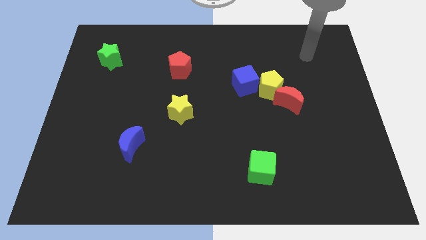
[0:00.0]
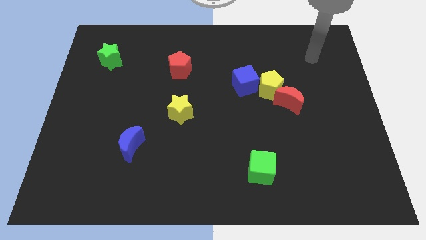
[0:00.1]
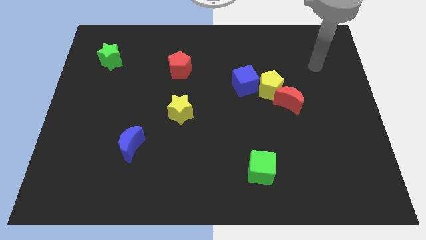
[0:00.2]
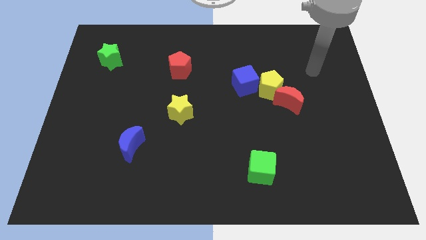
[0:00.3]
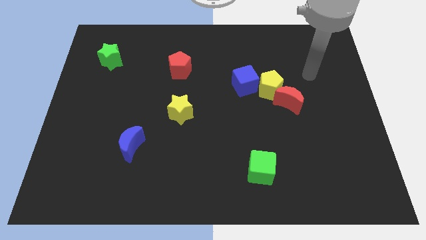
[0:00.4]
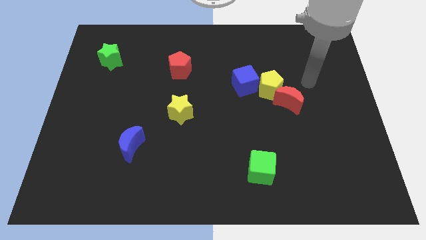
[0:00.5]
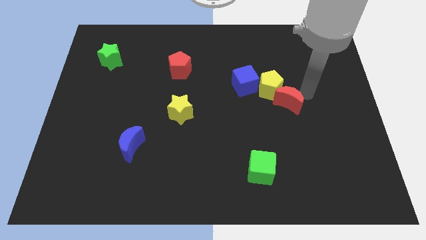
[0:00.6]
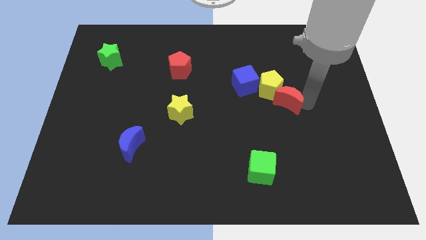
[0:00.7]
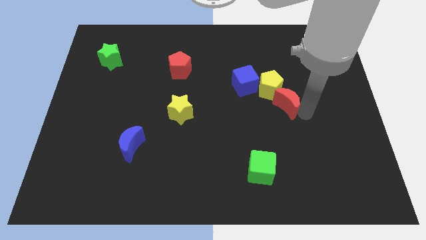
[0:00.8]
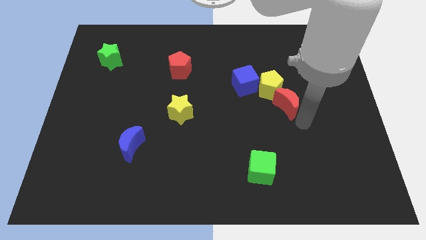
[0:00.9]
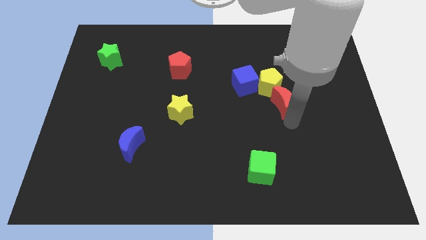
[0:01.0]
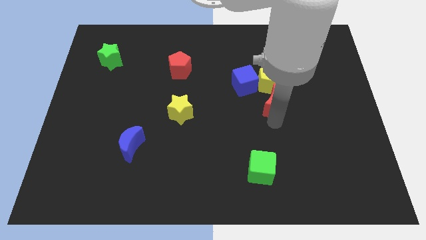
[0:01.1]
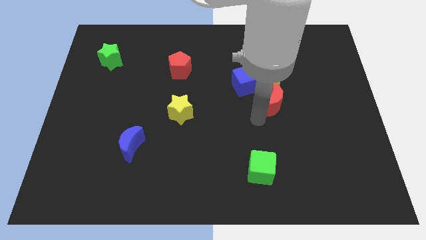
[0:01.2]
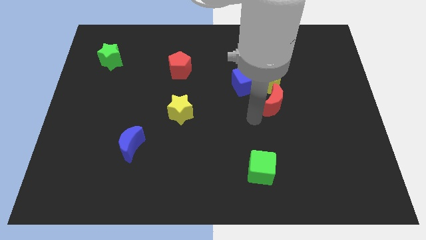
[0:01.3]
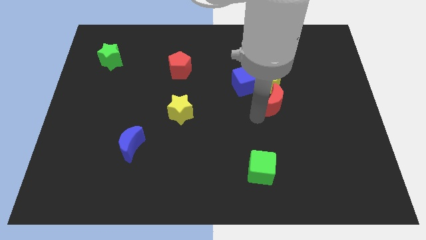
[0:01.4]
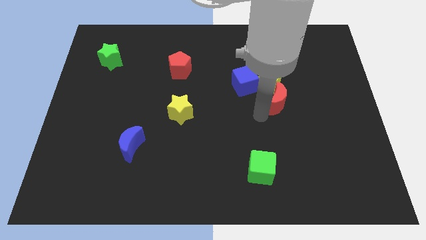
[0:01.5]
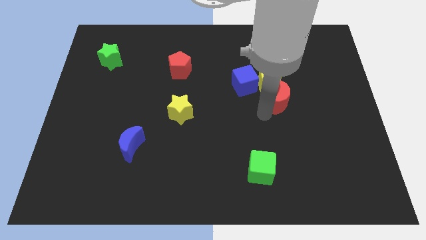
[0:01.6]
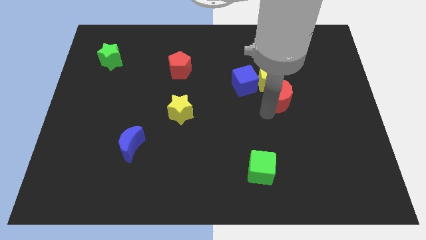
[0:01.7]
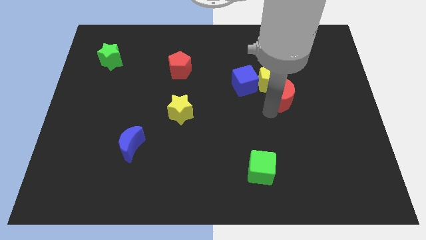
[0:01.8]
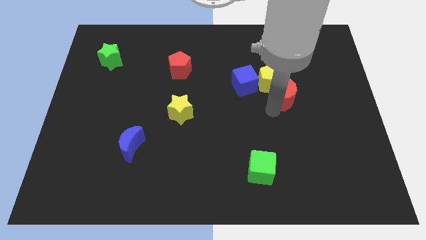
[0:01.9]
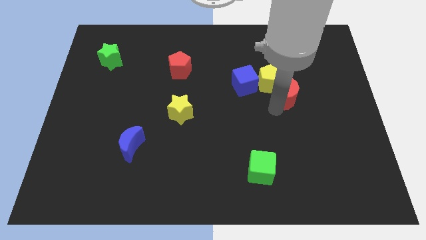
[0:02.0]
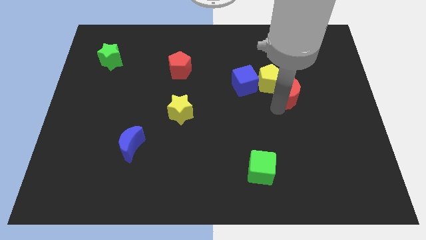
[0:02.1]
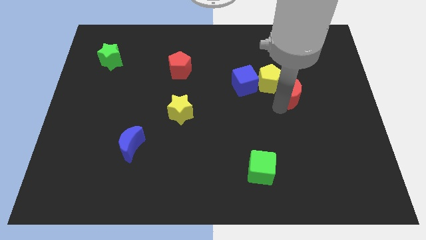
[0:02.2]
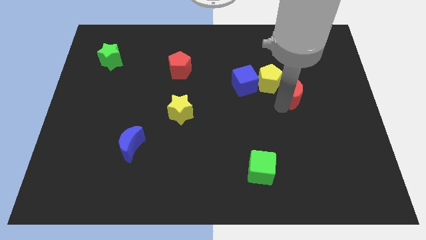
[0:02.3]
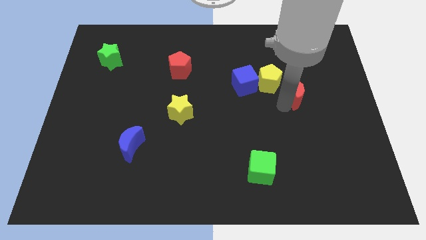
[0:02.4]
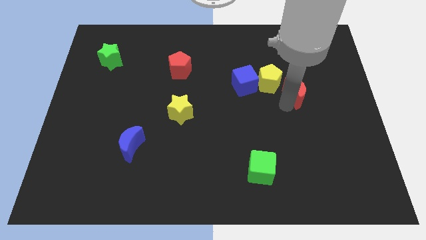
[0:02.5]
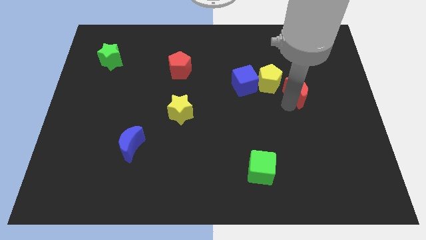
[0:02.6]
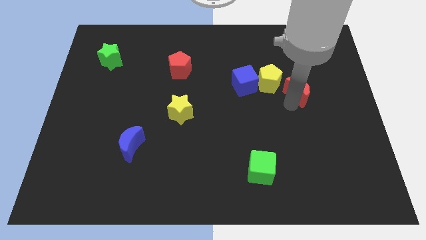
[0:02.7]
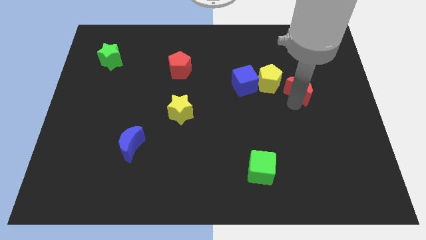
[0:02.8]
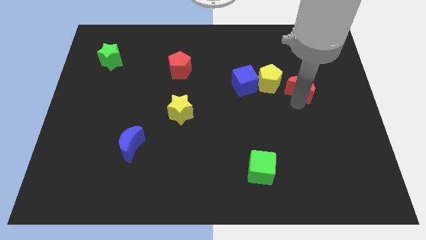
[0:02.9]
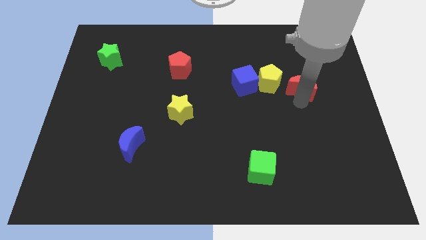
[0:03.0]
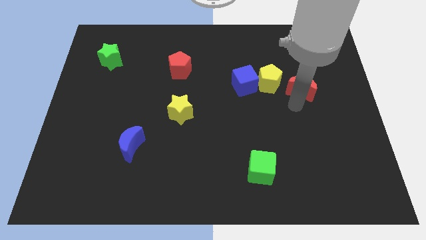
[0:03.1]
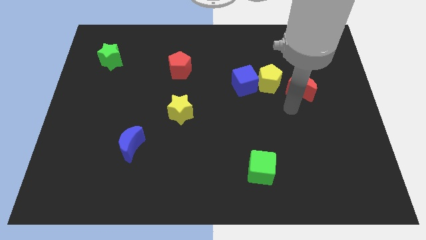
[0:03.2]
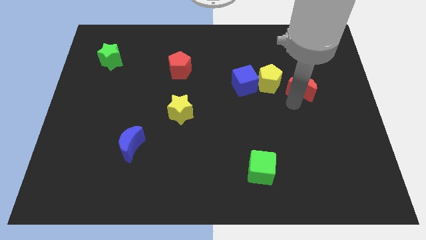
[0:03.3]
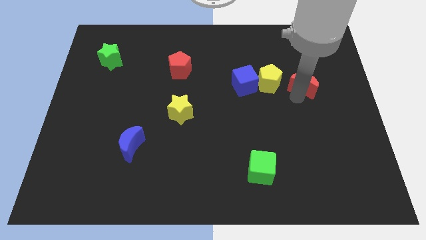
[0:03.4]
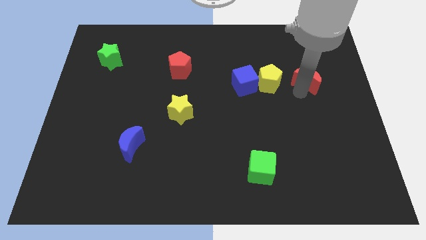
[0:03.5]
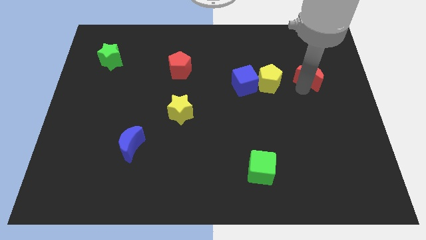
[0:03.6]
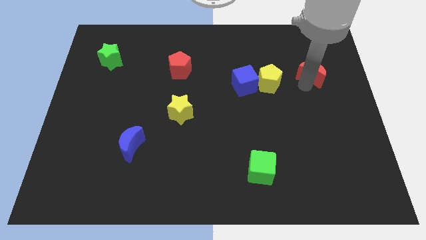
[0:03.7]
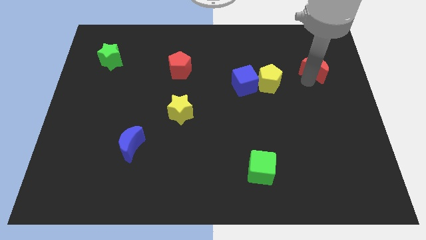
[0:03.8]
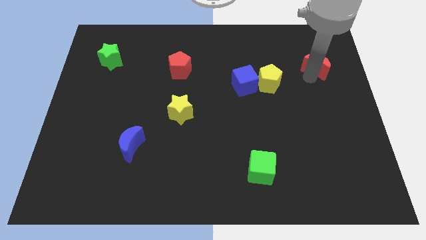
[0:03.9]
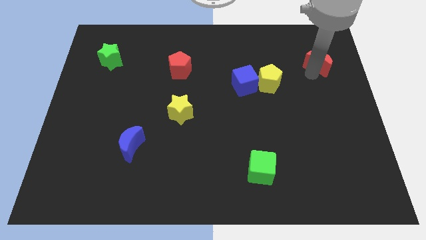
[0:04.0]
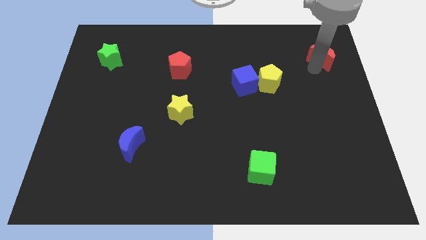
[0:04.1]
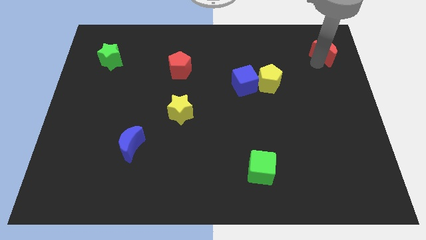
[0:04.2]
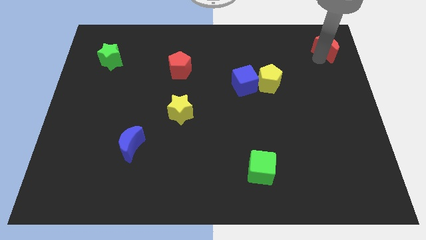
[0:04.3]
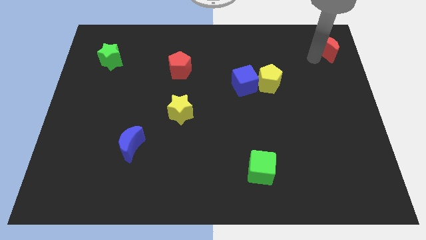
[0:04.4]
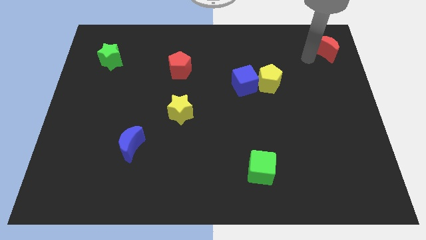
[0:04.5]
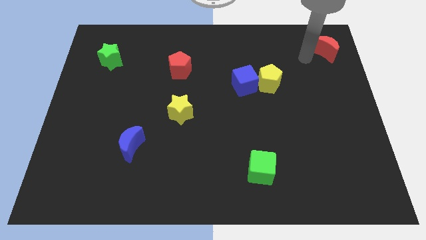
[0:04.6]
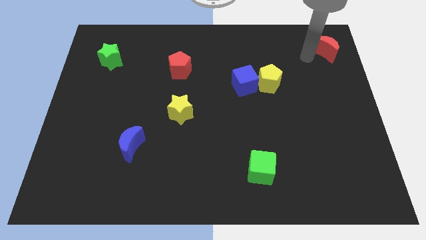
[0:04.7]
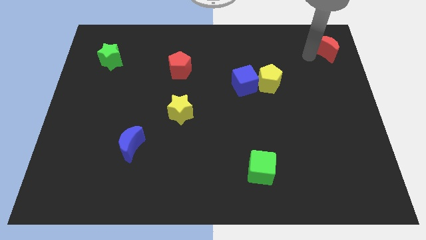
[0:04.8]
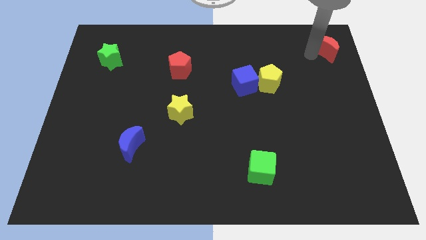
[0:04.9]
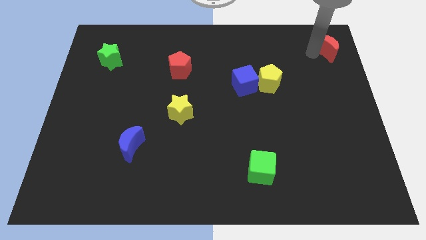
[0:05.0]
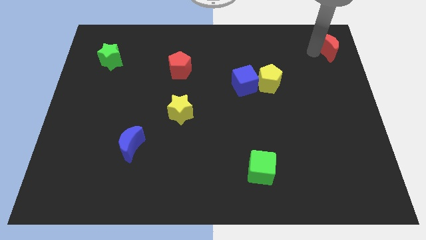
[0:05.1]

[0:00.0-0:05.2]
move the red moon to the top right corner

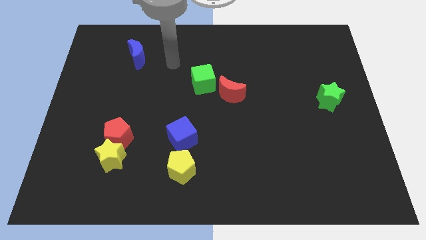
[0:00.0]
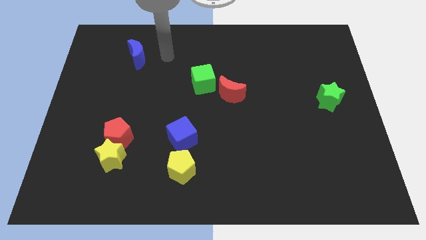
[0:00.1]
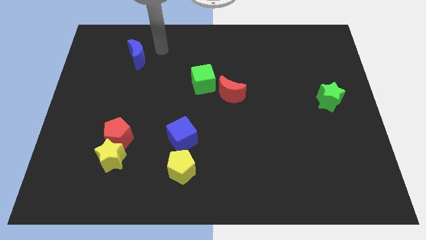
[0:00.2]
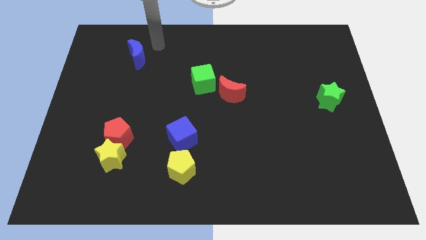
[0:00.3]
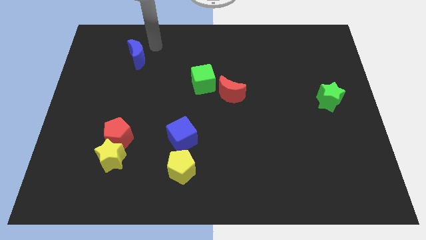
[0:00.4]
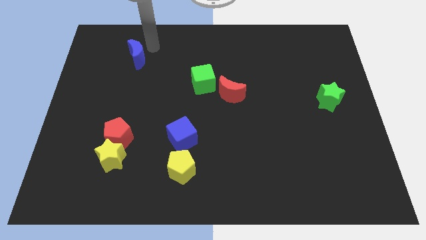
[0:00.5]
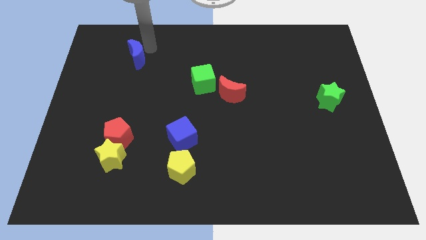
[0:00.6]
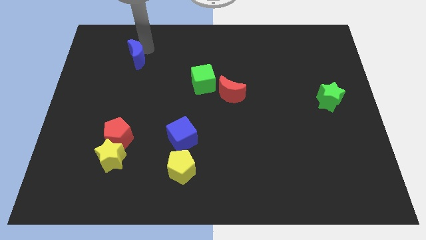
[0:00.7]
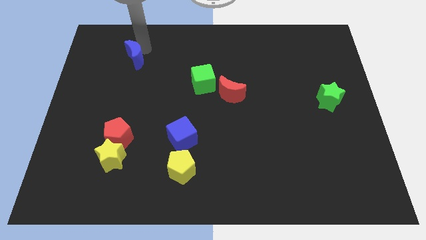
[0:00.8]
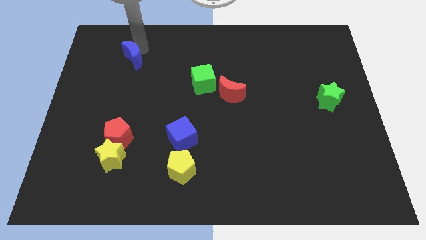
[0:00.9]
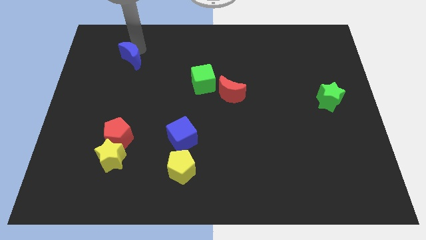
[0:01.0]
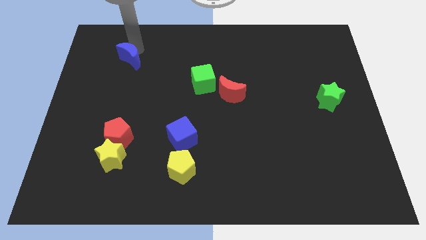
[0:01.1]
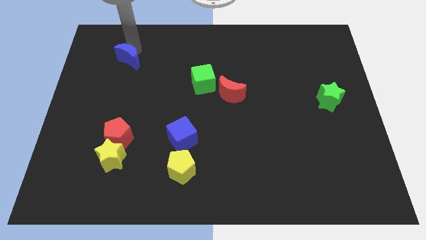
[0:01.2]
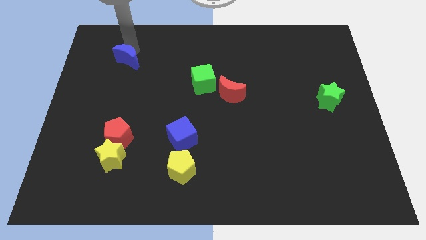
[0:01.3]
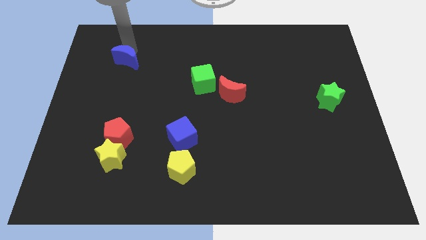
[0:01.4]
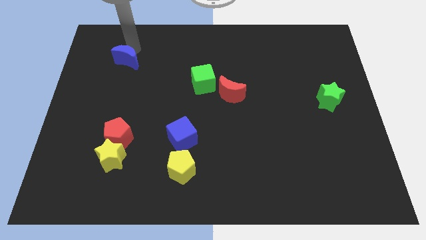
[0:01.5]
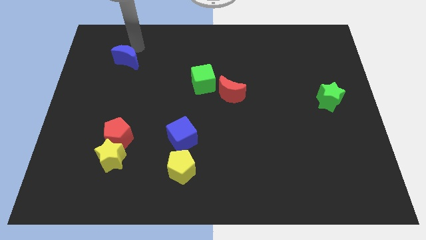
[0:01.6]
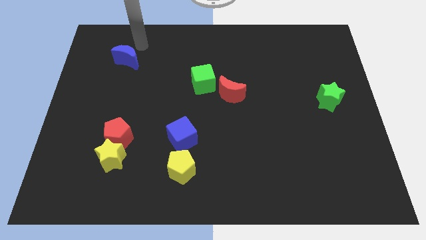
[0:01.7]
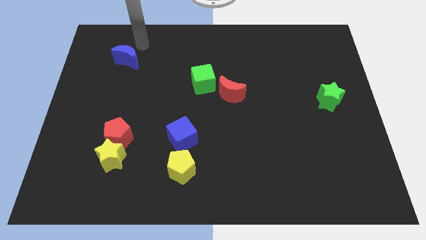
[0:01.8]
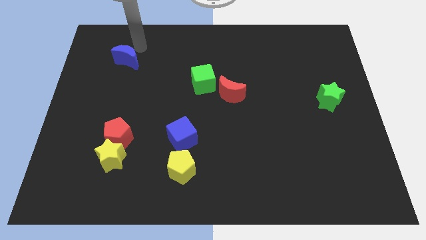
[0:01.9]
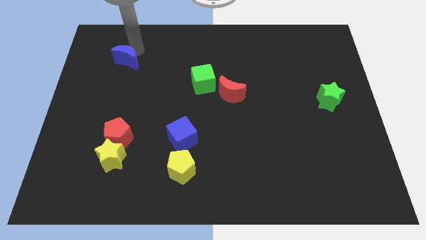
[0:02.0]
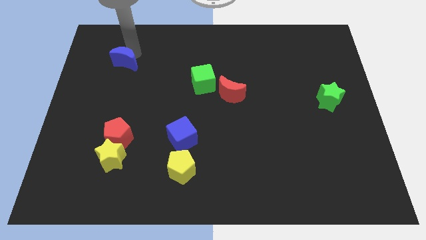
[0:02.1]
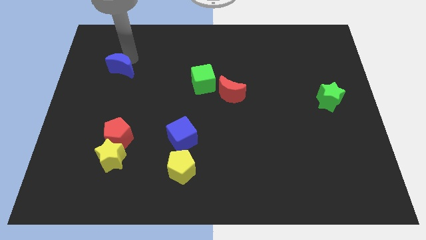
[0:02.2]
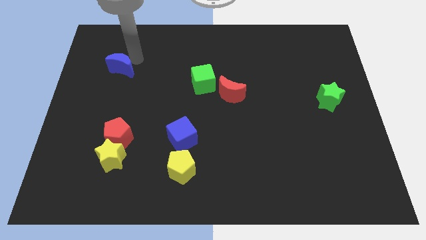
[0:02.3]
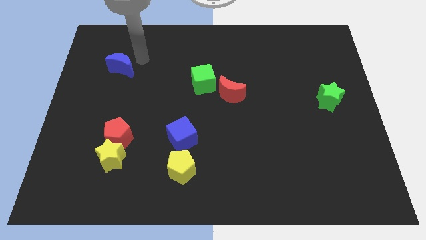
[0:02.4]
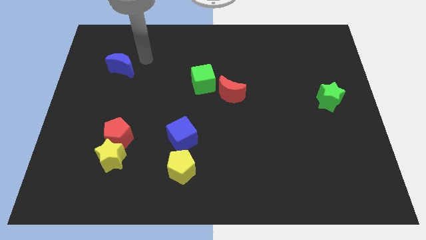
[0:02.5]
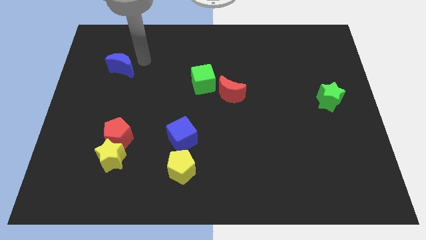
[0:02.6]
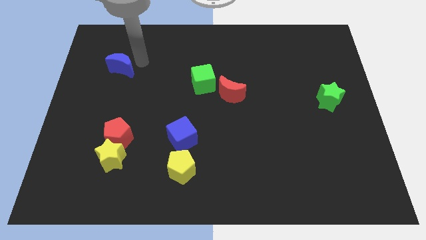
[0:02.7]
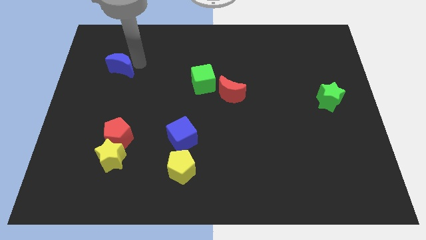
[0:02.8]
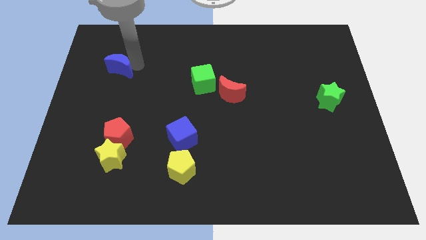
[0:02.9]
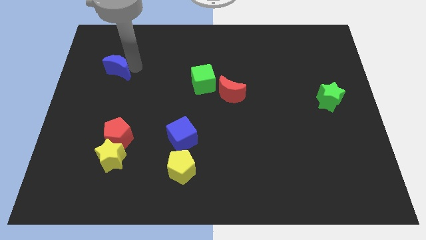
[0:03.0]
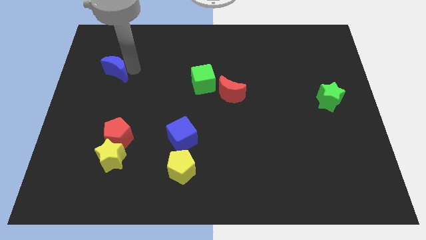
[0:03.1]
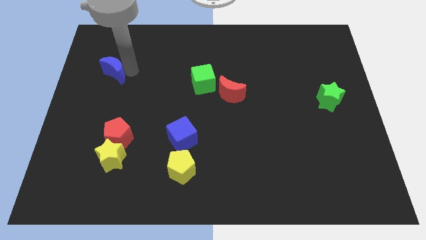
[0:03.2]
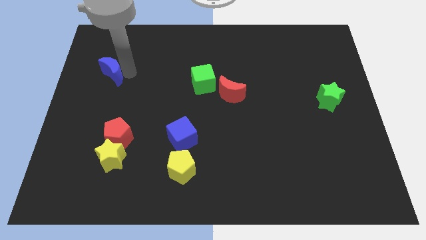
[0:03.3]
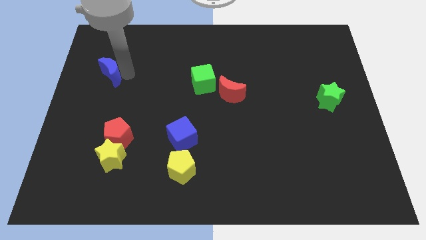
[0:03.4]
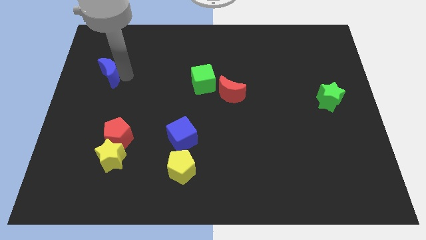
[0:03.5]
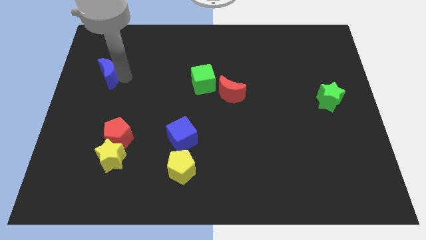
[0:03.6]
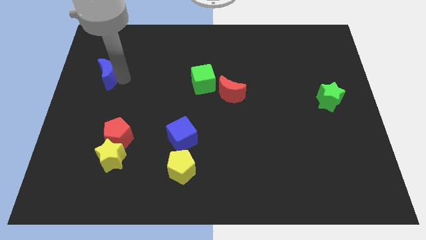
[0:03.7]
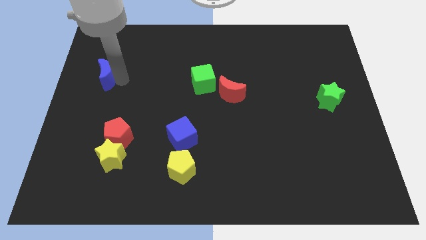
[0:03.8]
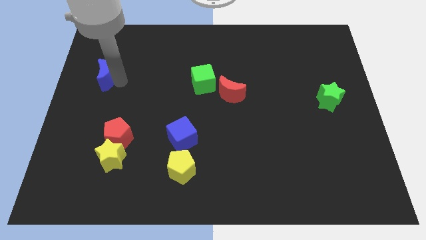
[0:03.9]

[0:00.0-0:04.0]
move the blue moon to the left side of the board
